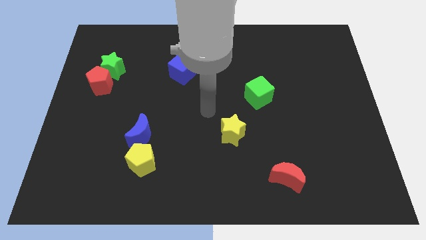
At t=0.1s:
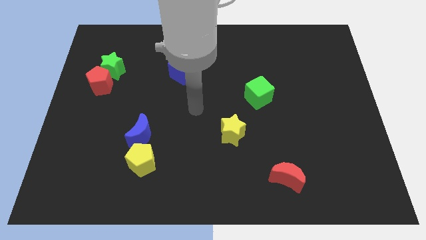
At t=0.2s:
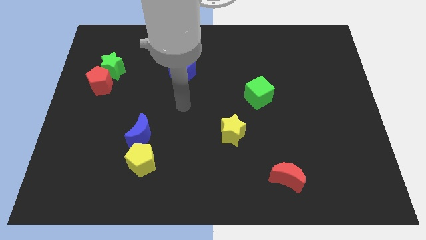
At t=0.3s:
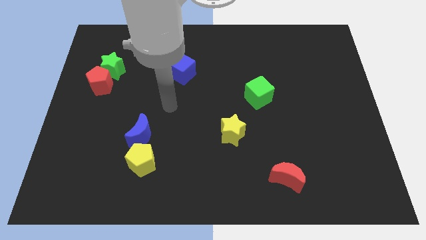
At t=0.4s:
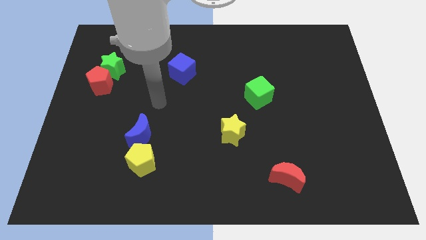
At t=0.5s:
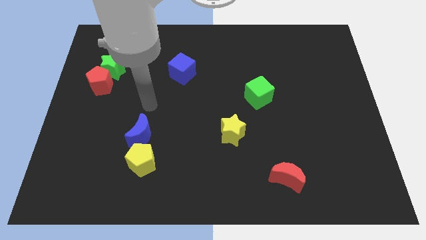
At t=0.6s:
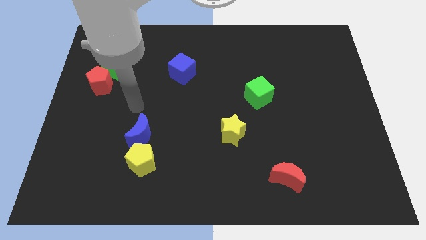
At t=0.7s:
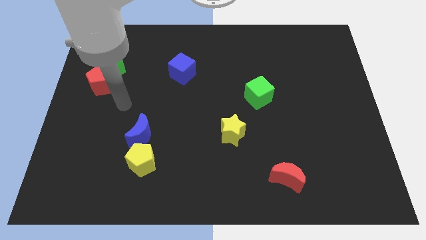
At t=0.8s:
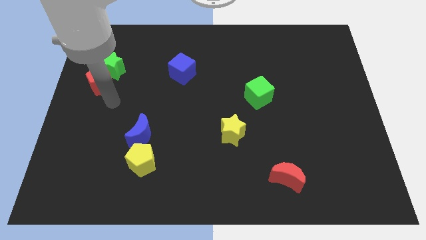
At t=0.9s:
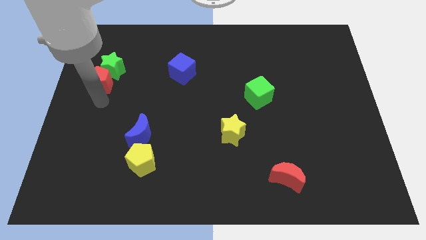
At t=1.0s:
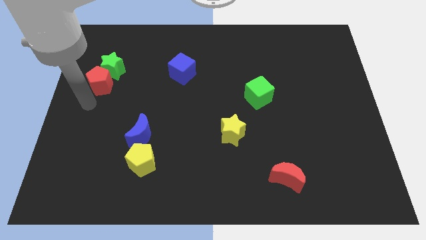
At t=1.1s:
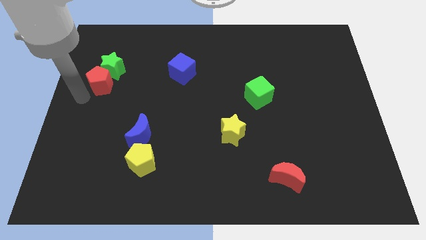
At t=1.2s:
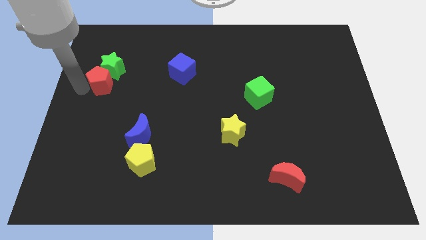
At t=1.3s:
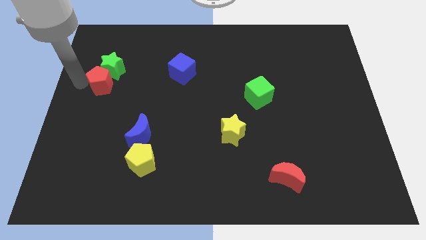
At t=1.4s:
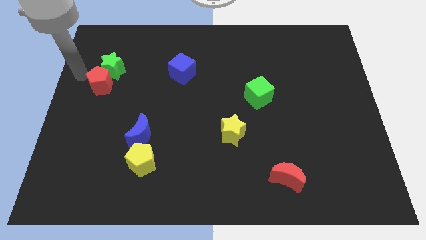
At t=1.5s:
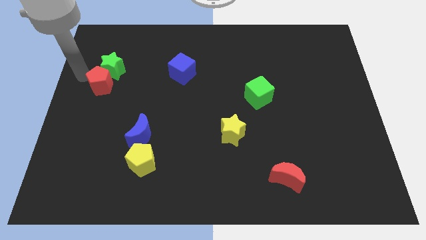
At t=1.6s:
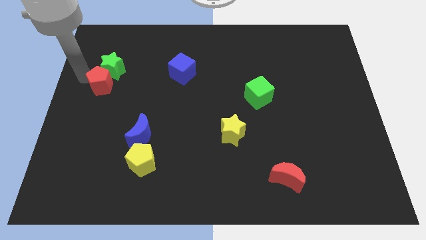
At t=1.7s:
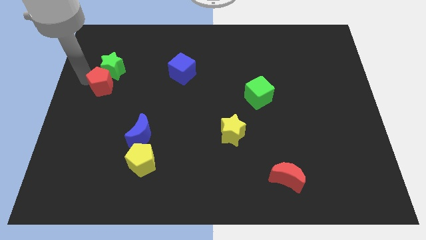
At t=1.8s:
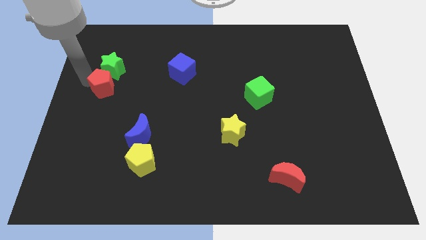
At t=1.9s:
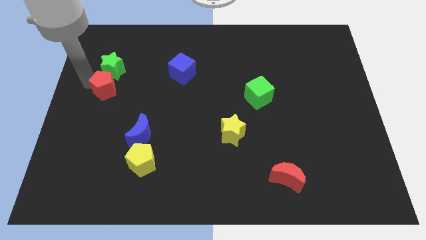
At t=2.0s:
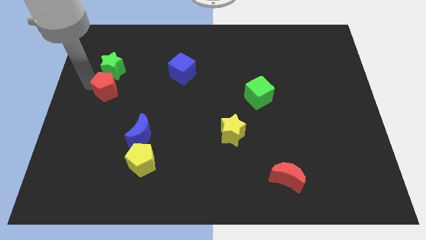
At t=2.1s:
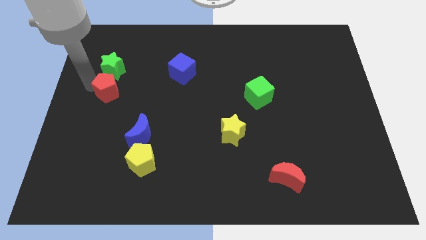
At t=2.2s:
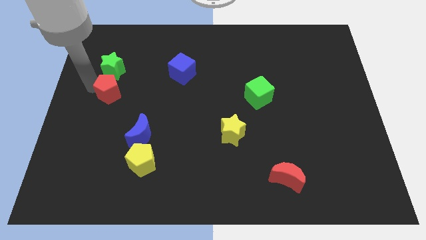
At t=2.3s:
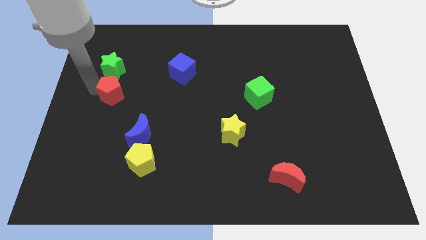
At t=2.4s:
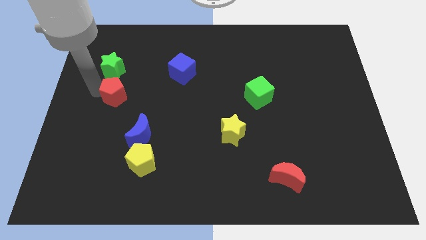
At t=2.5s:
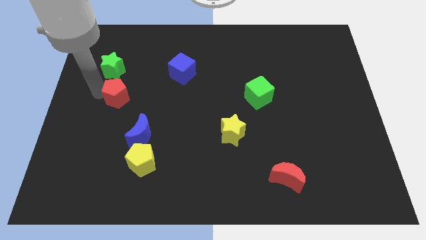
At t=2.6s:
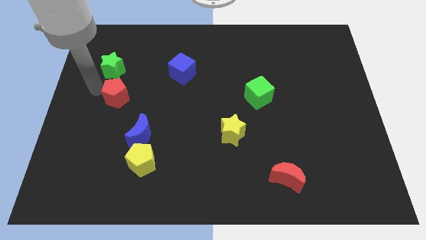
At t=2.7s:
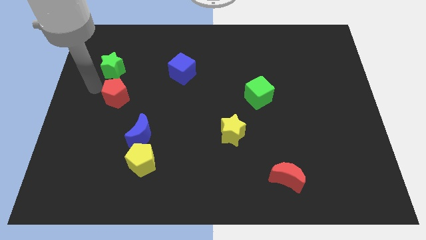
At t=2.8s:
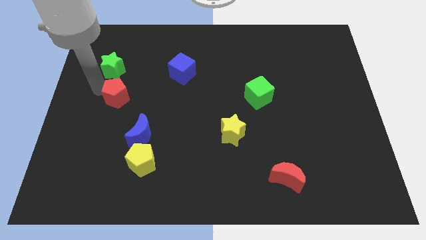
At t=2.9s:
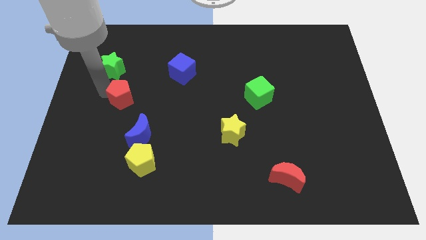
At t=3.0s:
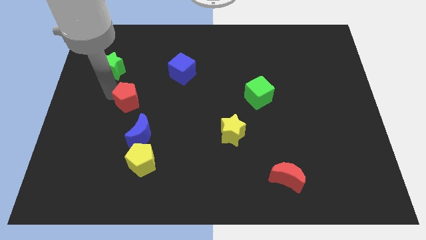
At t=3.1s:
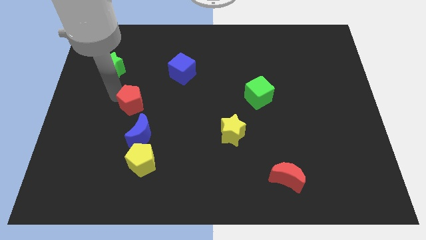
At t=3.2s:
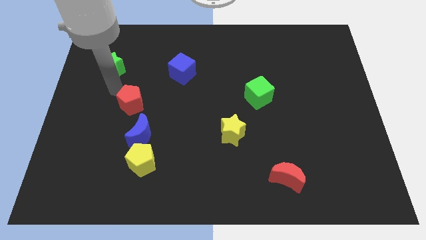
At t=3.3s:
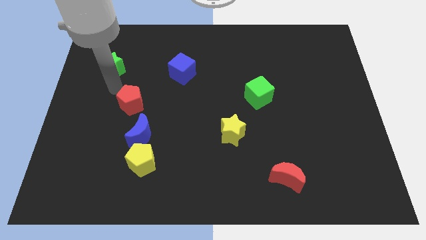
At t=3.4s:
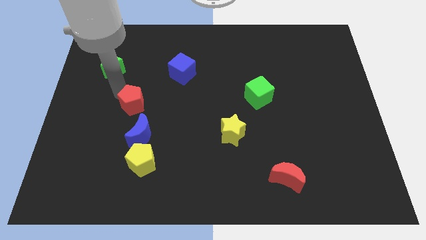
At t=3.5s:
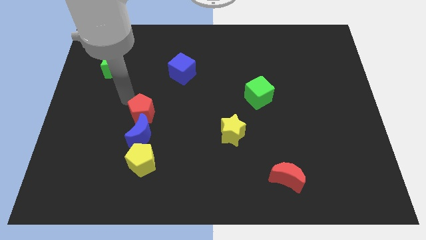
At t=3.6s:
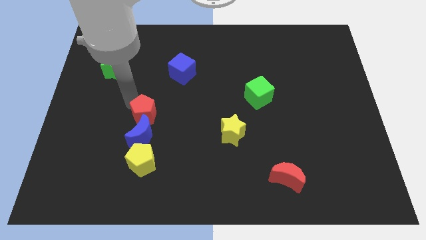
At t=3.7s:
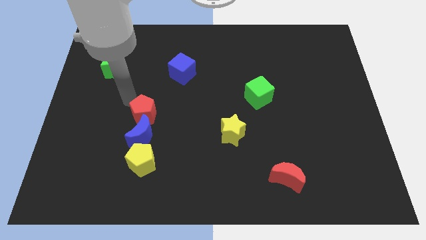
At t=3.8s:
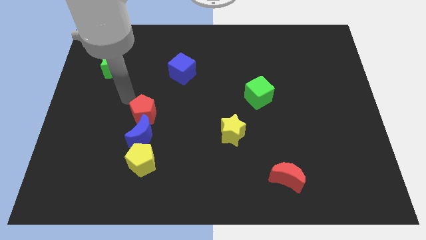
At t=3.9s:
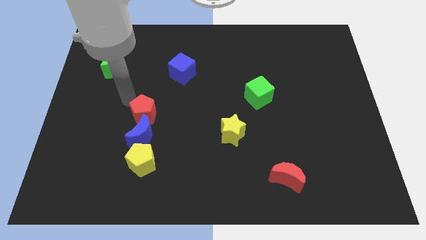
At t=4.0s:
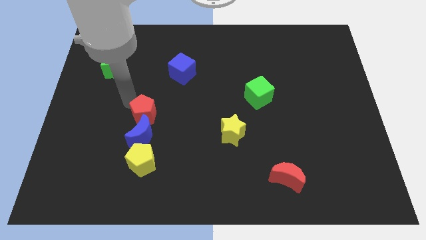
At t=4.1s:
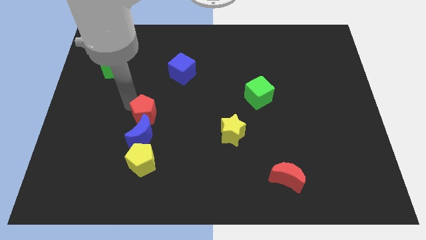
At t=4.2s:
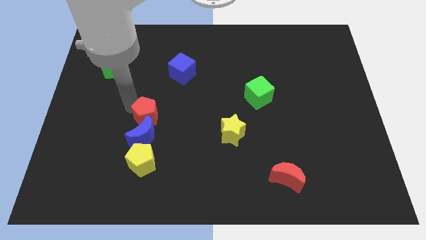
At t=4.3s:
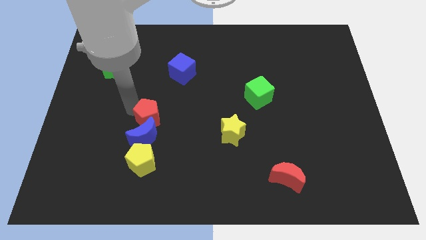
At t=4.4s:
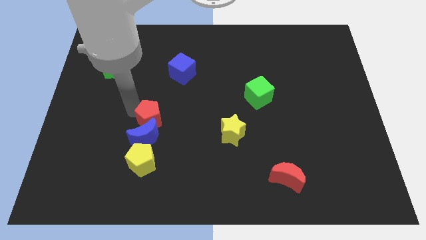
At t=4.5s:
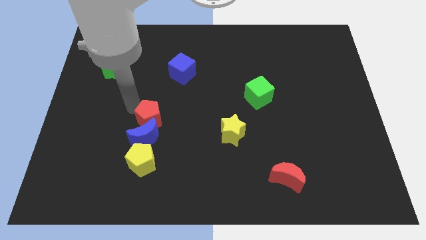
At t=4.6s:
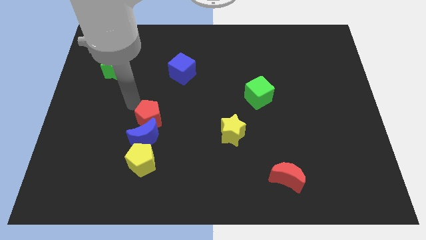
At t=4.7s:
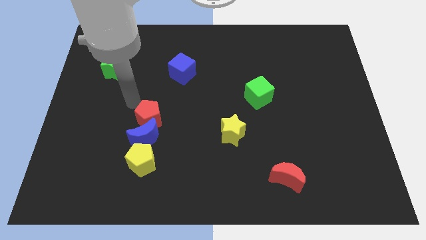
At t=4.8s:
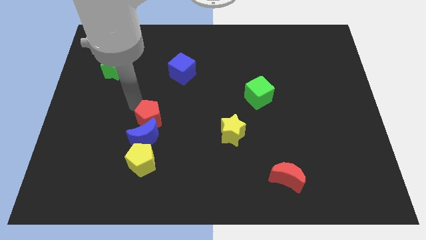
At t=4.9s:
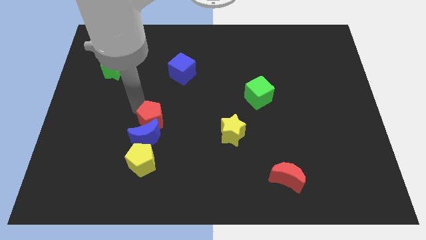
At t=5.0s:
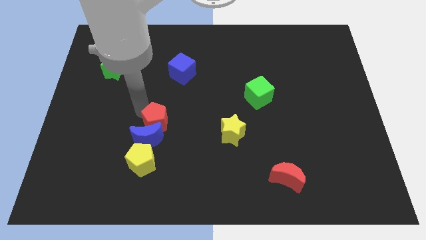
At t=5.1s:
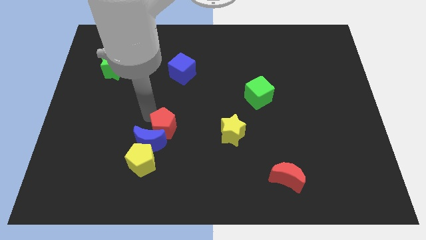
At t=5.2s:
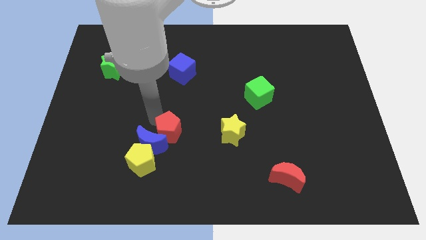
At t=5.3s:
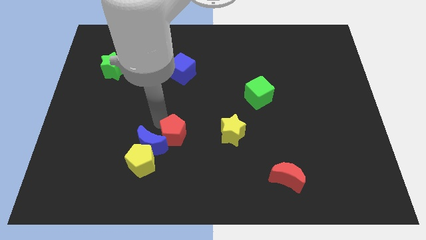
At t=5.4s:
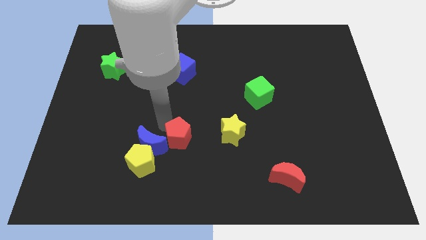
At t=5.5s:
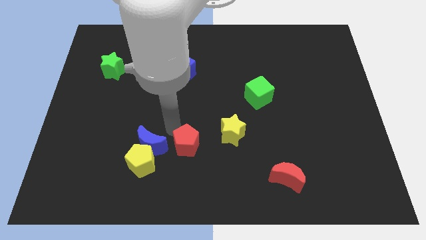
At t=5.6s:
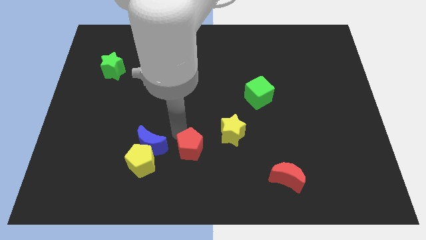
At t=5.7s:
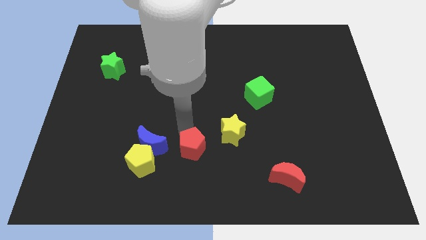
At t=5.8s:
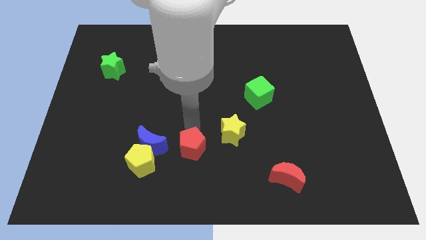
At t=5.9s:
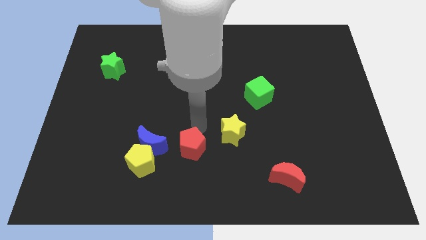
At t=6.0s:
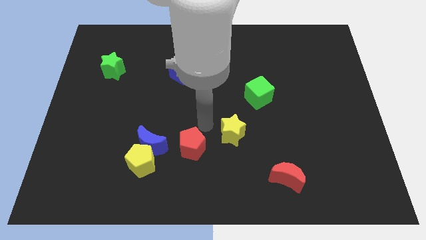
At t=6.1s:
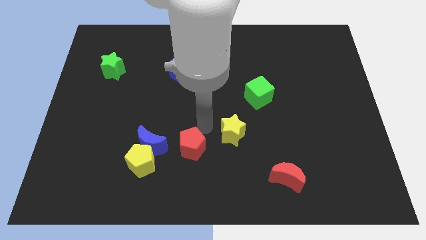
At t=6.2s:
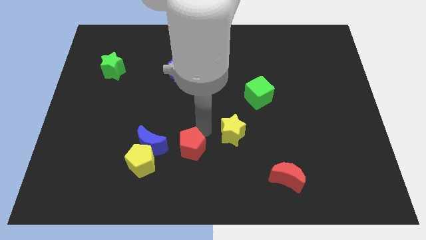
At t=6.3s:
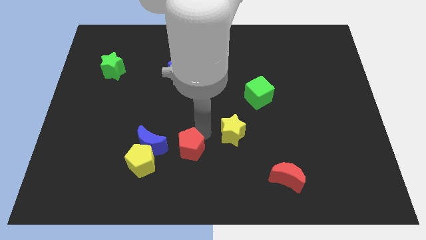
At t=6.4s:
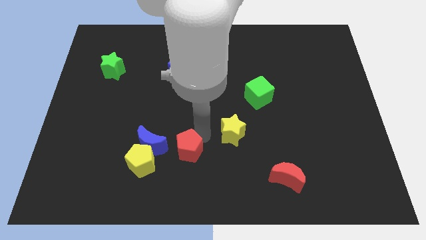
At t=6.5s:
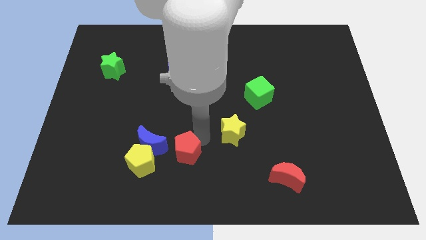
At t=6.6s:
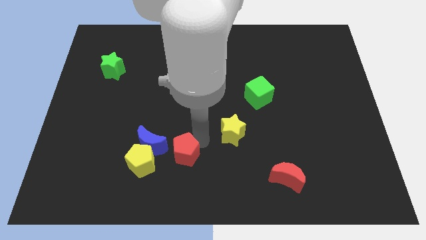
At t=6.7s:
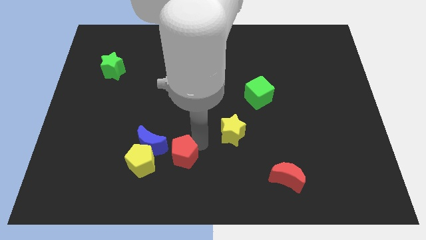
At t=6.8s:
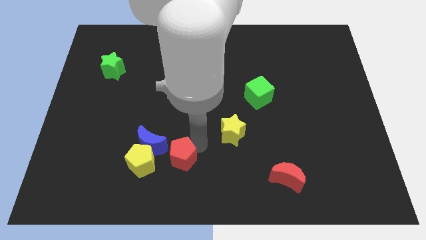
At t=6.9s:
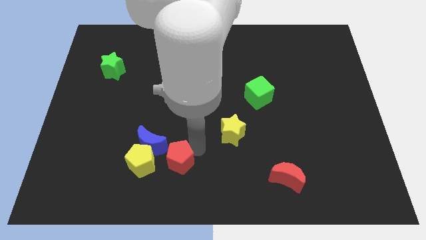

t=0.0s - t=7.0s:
slide the red pentagon to the bottom
